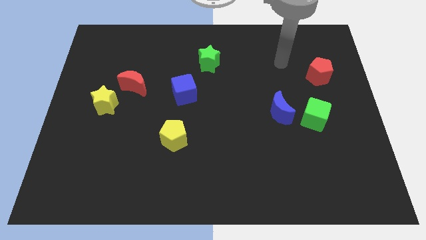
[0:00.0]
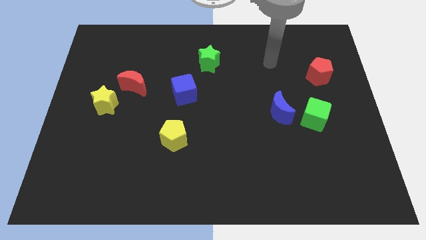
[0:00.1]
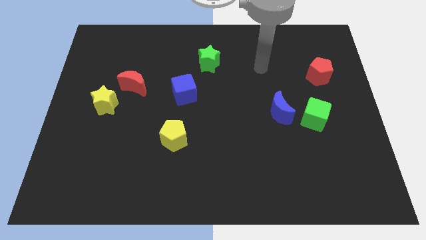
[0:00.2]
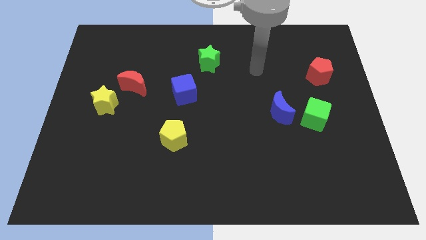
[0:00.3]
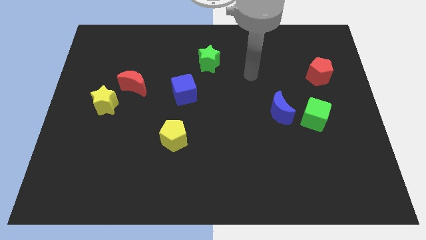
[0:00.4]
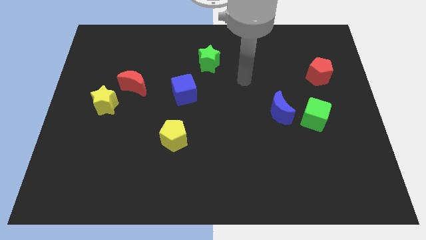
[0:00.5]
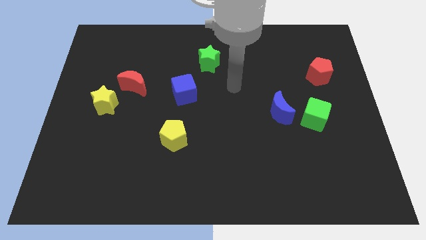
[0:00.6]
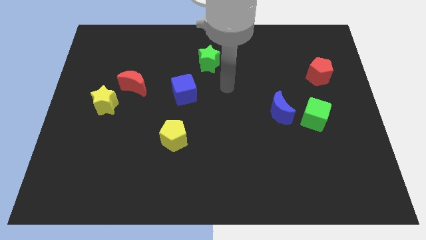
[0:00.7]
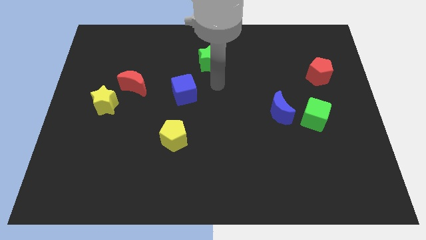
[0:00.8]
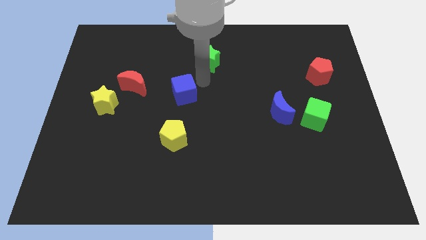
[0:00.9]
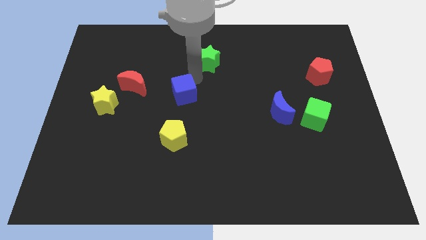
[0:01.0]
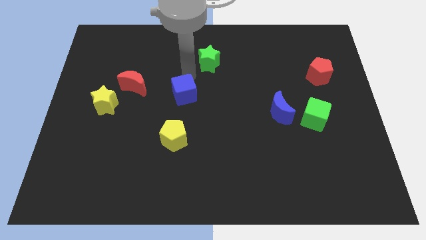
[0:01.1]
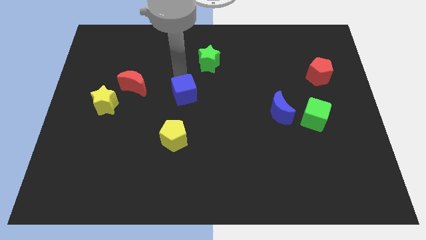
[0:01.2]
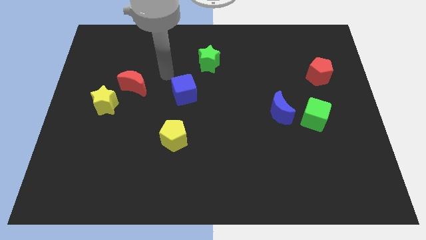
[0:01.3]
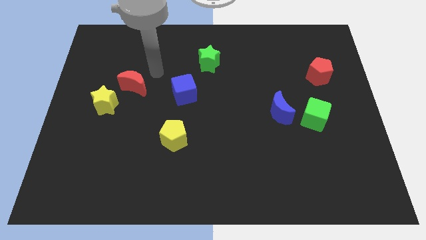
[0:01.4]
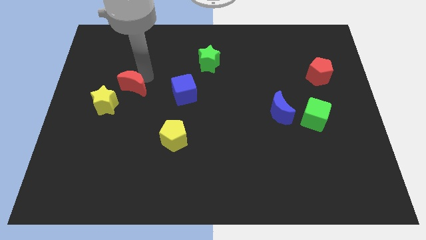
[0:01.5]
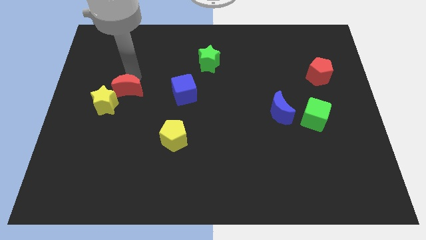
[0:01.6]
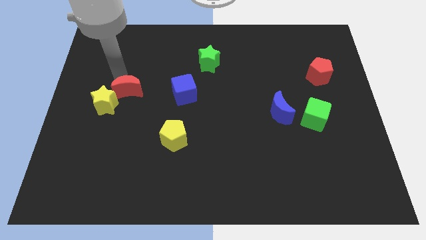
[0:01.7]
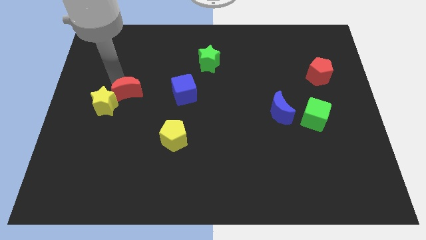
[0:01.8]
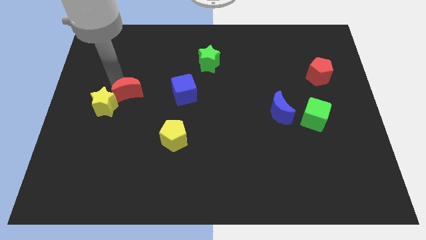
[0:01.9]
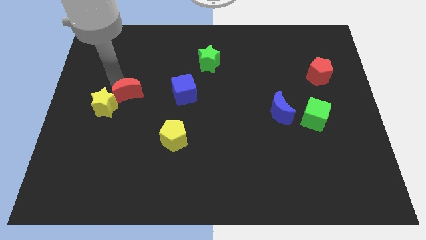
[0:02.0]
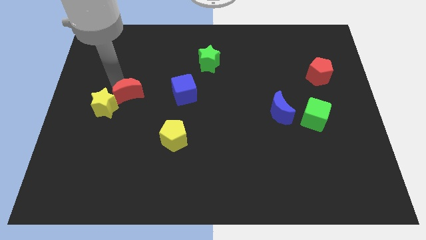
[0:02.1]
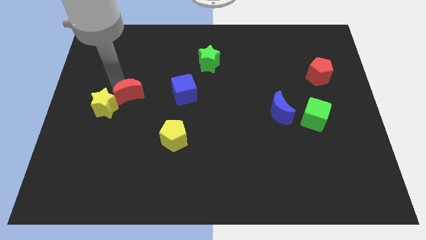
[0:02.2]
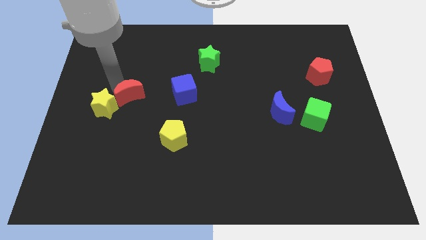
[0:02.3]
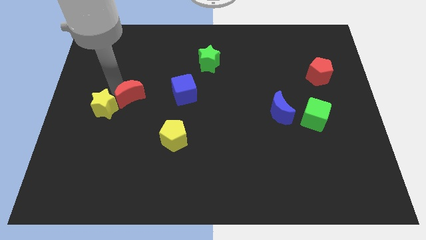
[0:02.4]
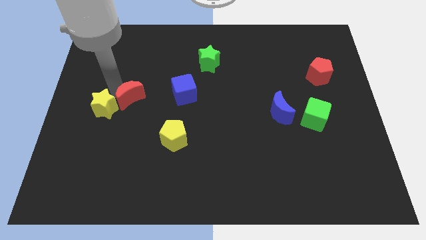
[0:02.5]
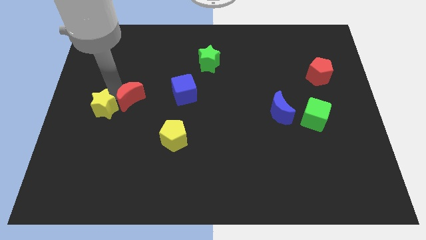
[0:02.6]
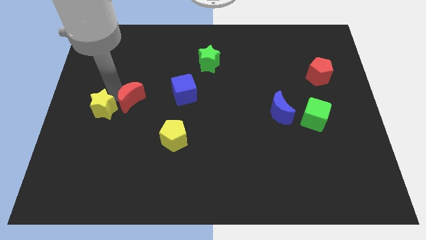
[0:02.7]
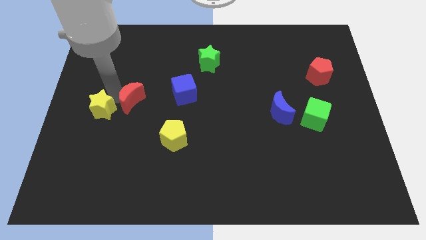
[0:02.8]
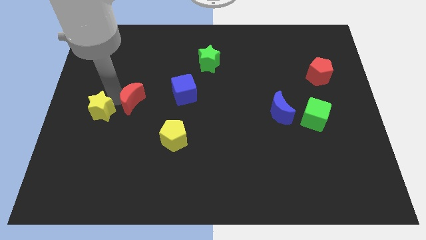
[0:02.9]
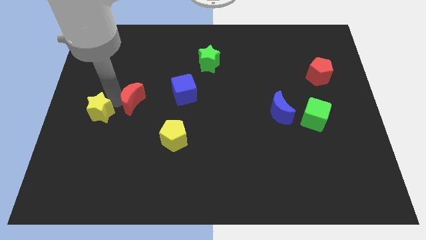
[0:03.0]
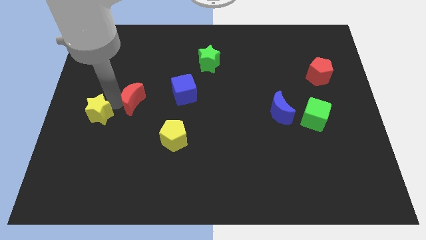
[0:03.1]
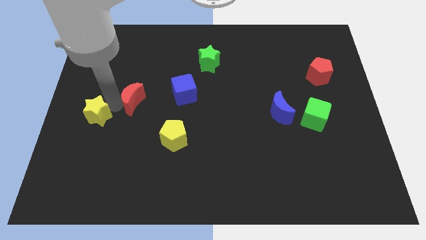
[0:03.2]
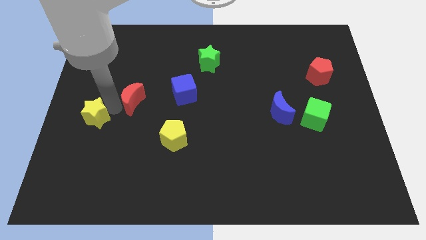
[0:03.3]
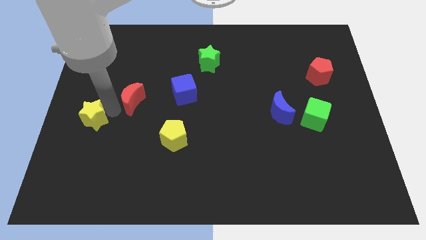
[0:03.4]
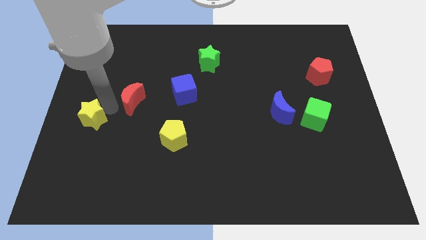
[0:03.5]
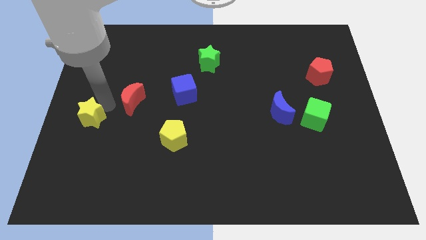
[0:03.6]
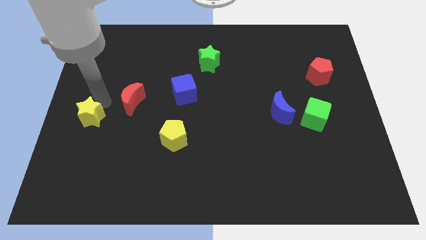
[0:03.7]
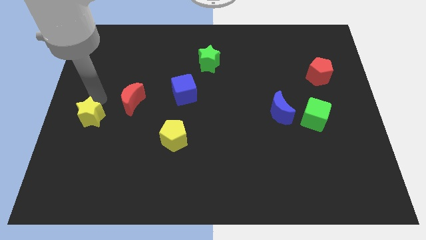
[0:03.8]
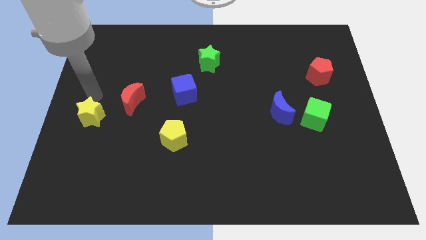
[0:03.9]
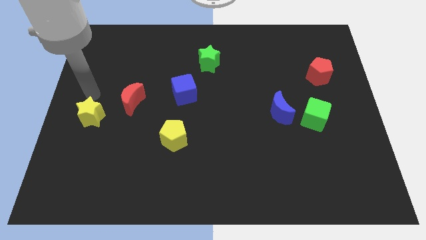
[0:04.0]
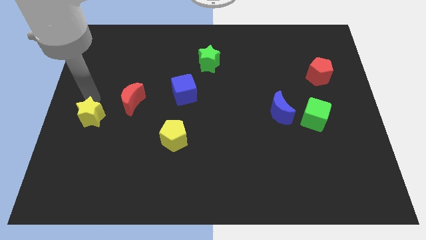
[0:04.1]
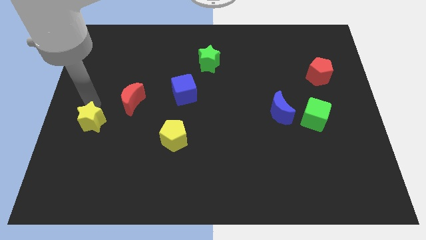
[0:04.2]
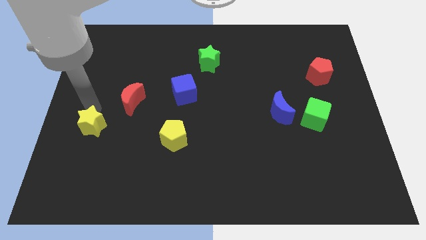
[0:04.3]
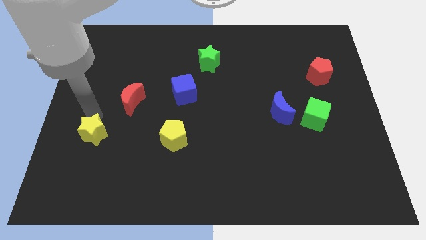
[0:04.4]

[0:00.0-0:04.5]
slightly slide the yellow star down

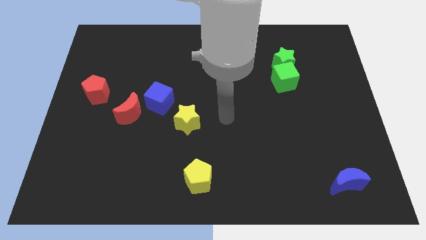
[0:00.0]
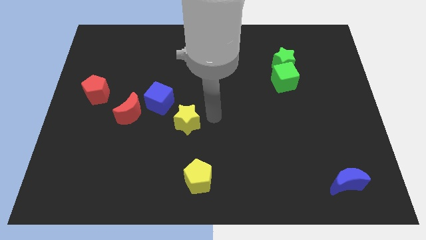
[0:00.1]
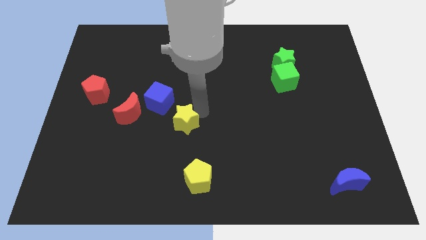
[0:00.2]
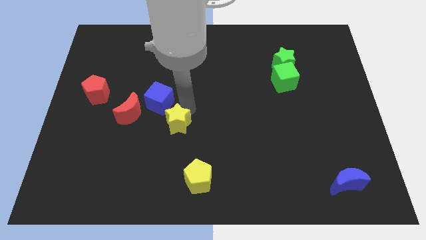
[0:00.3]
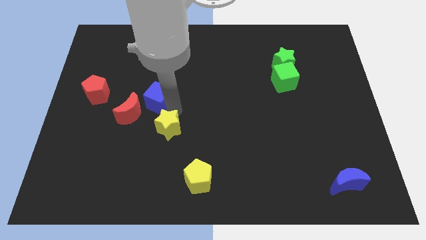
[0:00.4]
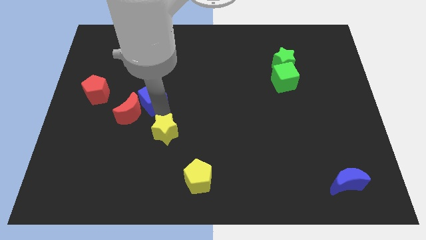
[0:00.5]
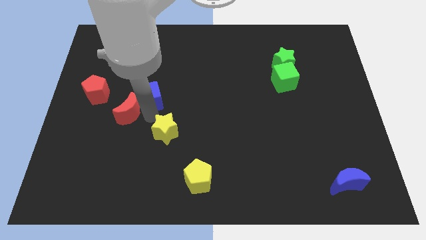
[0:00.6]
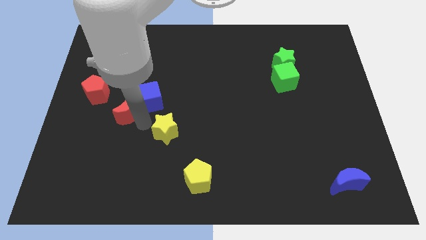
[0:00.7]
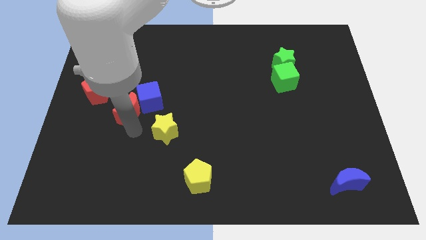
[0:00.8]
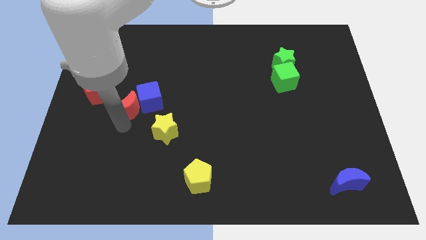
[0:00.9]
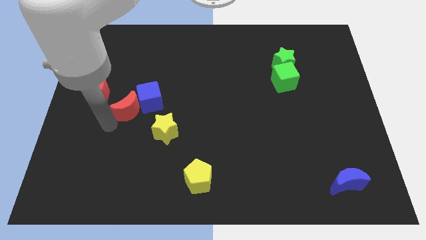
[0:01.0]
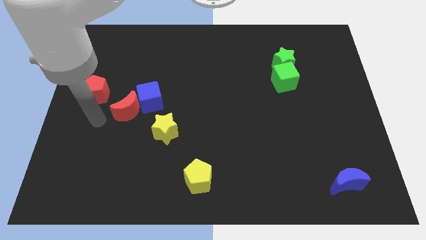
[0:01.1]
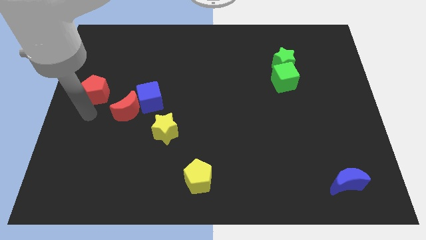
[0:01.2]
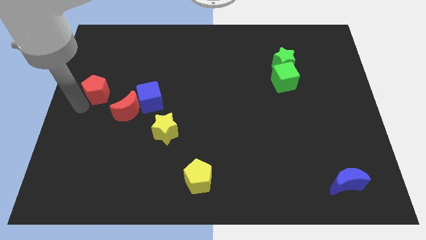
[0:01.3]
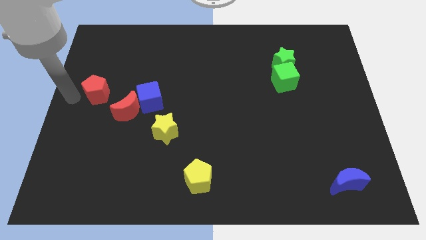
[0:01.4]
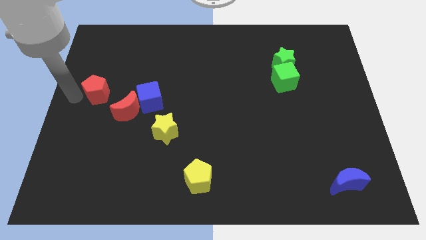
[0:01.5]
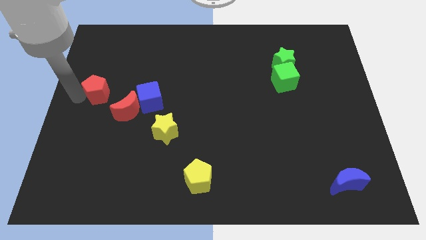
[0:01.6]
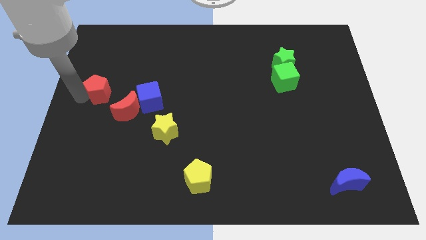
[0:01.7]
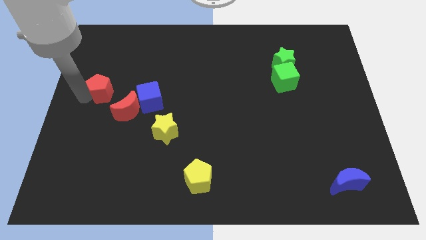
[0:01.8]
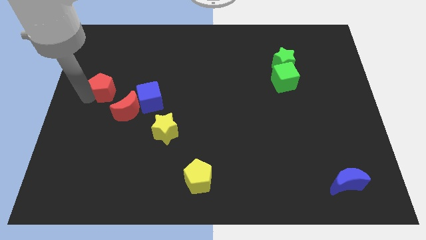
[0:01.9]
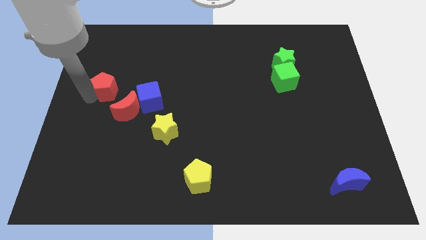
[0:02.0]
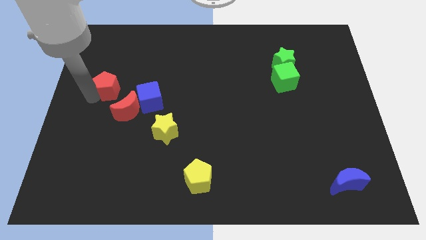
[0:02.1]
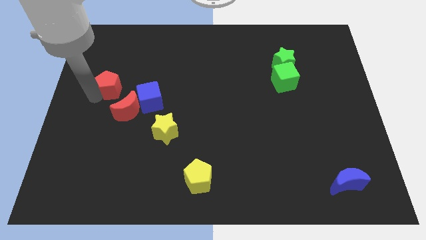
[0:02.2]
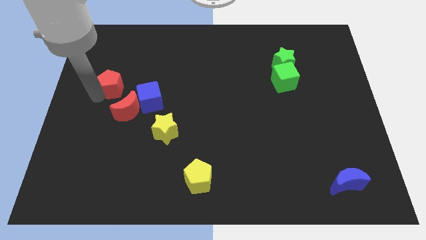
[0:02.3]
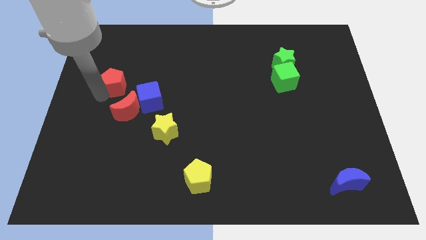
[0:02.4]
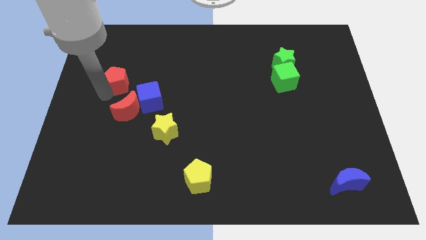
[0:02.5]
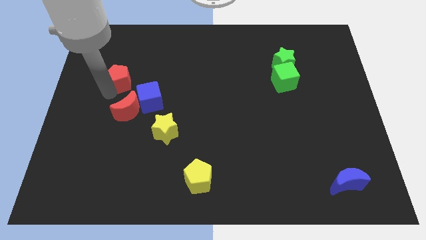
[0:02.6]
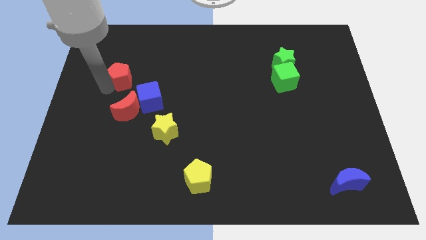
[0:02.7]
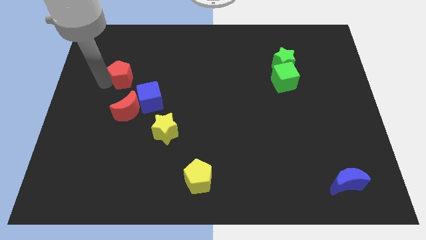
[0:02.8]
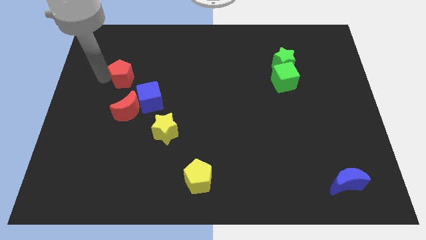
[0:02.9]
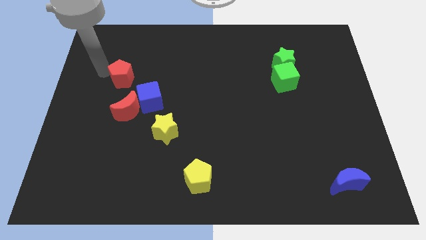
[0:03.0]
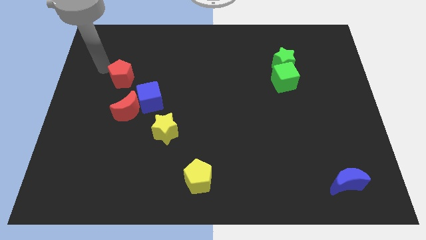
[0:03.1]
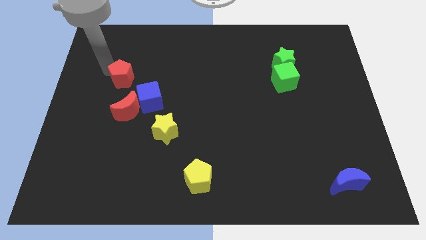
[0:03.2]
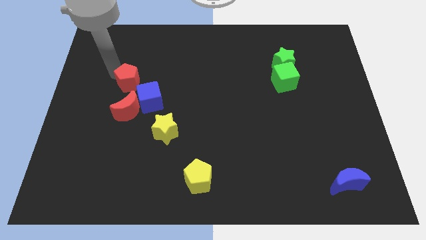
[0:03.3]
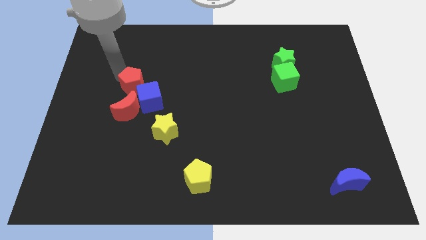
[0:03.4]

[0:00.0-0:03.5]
slightly slide the red pentagon to the right

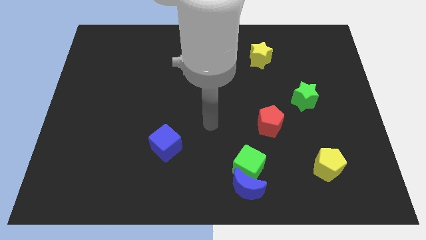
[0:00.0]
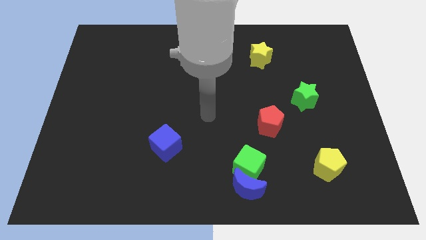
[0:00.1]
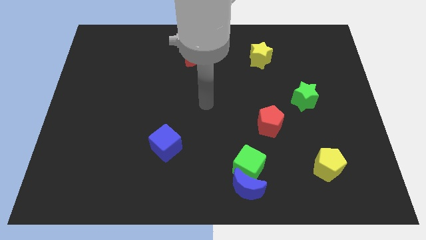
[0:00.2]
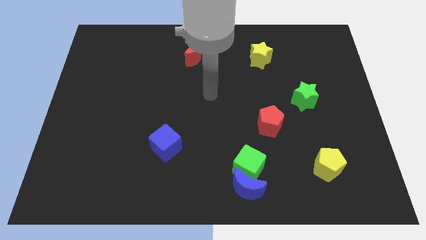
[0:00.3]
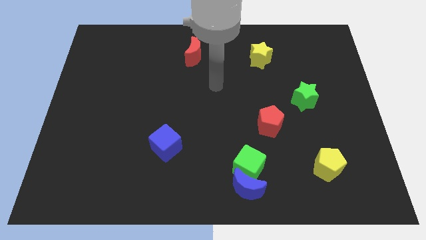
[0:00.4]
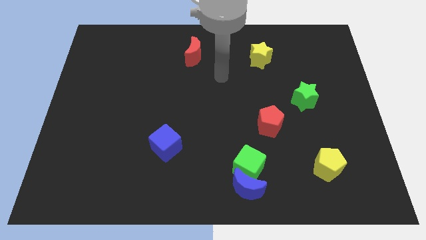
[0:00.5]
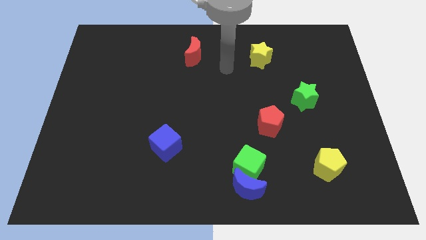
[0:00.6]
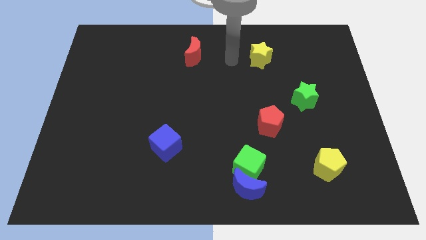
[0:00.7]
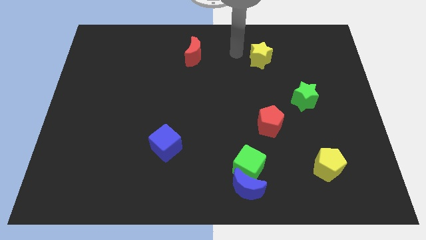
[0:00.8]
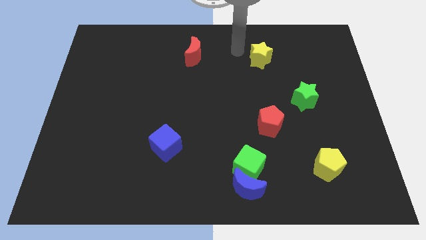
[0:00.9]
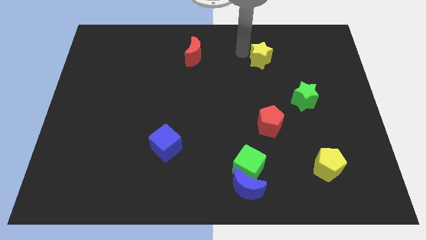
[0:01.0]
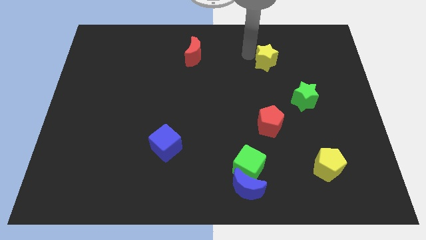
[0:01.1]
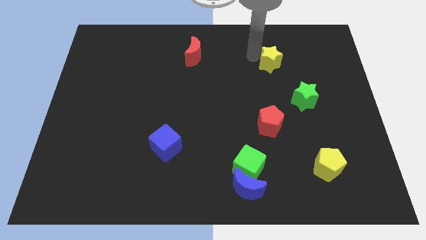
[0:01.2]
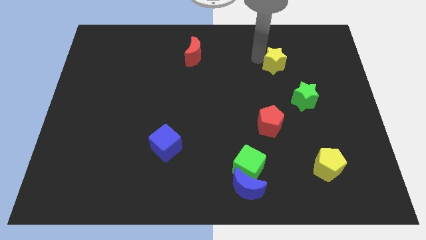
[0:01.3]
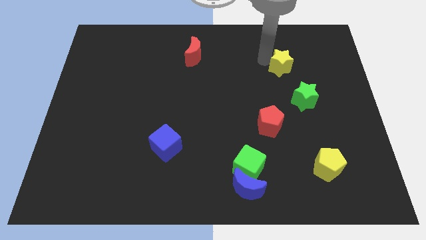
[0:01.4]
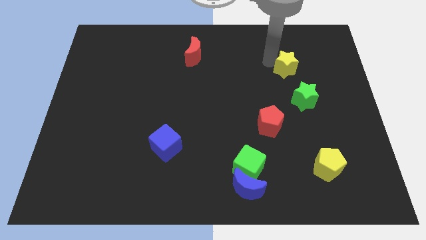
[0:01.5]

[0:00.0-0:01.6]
push the yellow star down and then to the right somewhat
